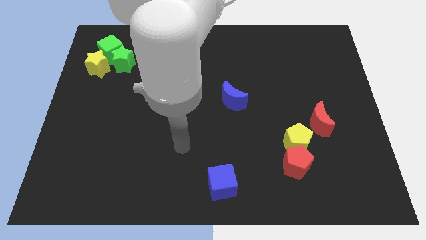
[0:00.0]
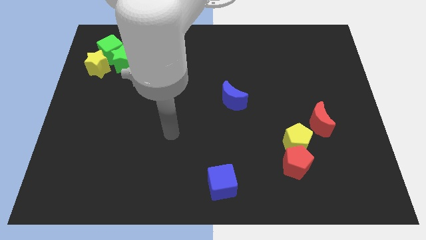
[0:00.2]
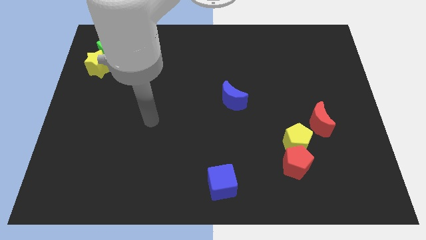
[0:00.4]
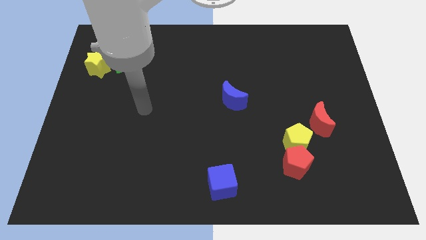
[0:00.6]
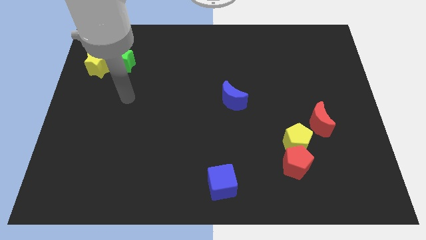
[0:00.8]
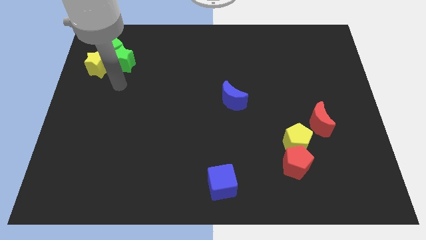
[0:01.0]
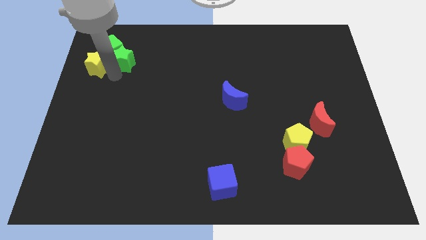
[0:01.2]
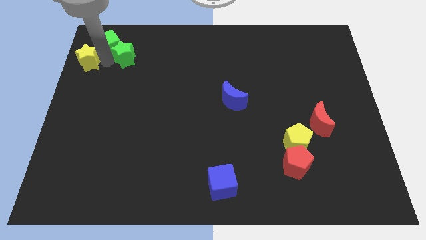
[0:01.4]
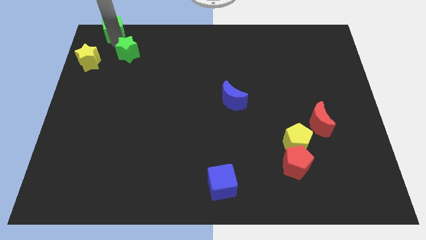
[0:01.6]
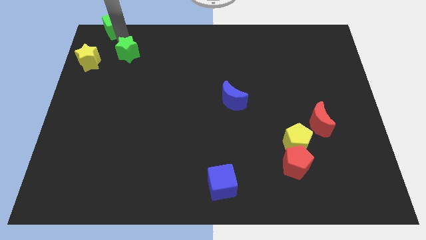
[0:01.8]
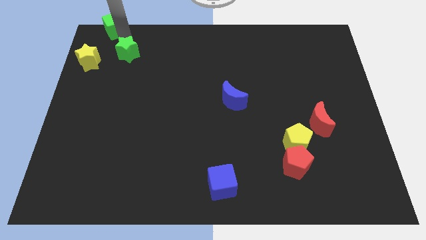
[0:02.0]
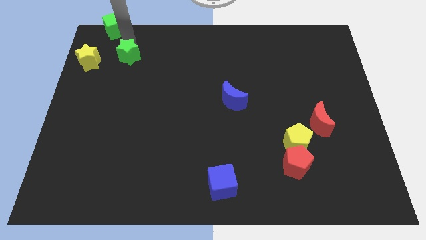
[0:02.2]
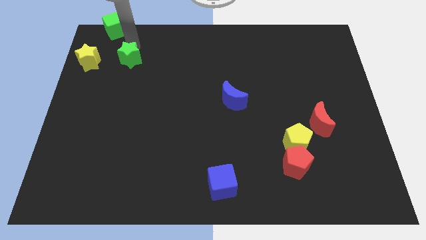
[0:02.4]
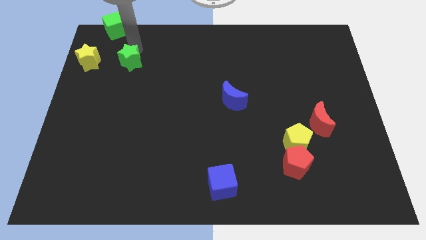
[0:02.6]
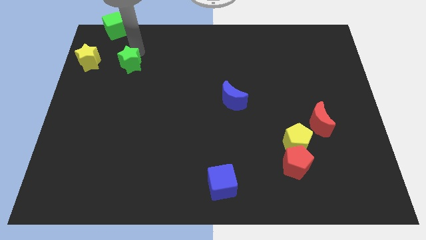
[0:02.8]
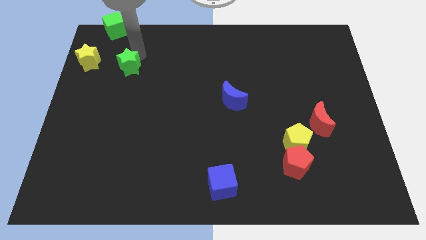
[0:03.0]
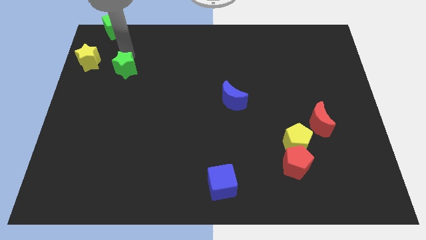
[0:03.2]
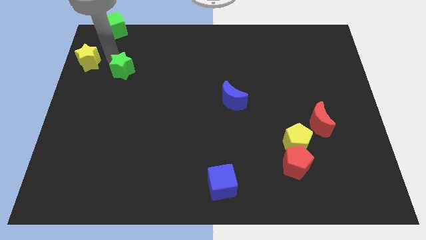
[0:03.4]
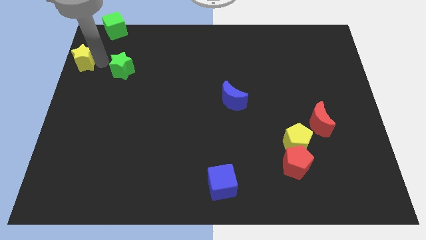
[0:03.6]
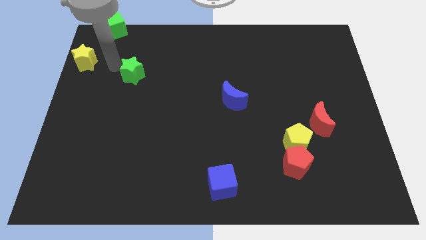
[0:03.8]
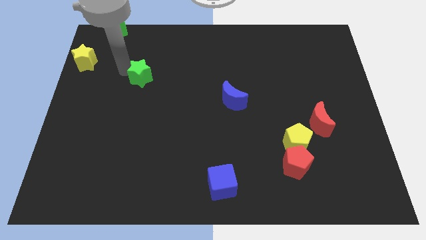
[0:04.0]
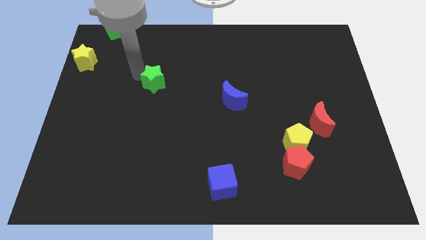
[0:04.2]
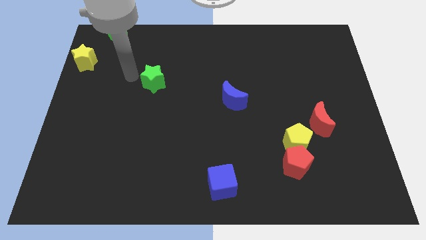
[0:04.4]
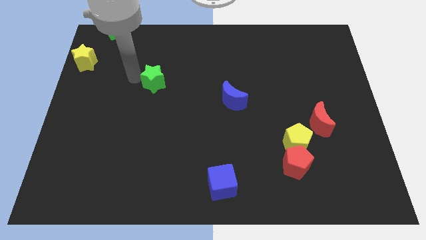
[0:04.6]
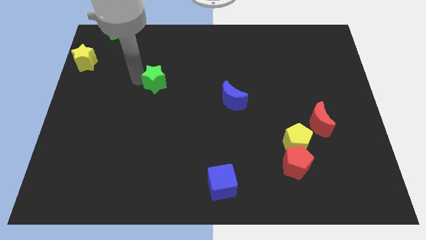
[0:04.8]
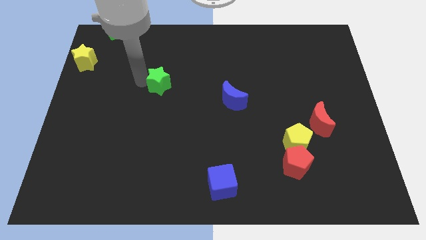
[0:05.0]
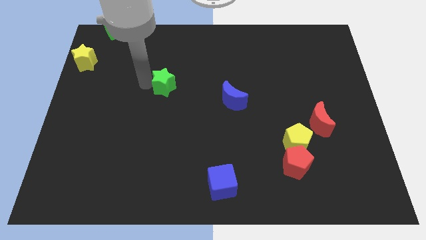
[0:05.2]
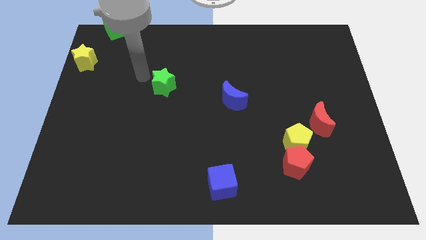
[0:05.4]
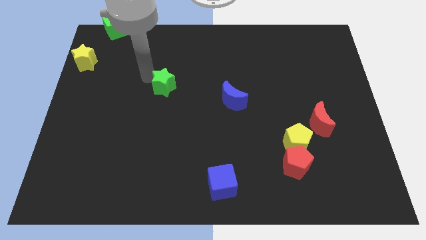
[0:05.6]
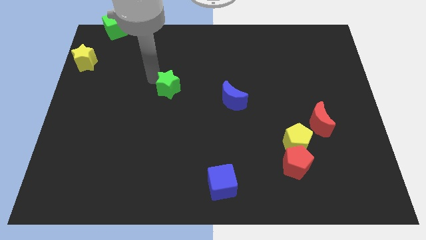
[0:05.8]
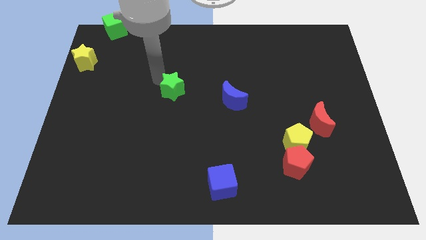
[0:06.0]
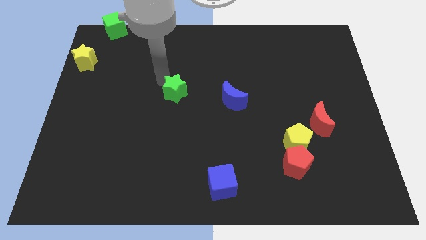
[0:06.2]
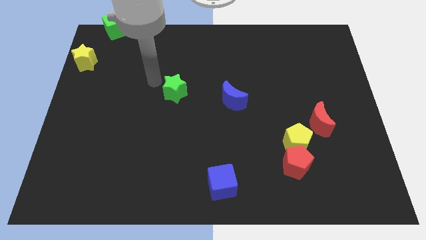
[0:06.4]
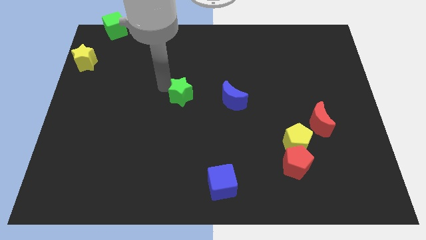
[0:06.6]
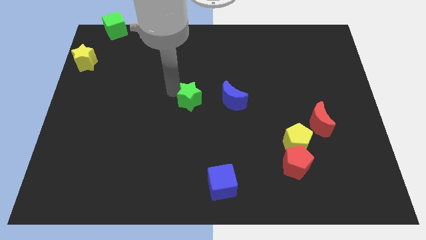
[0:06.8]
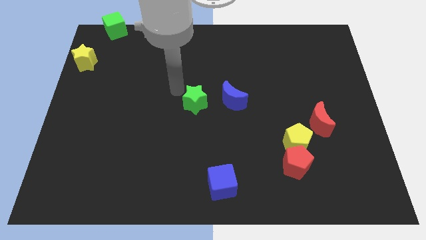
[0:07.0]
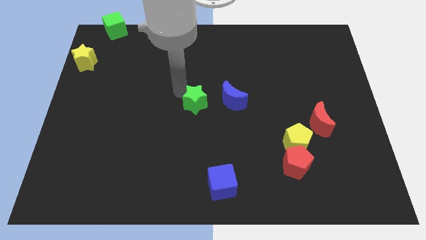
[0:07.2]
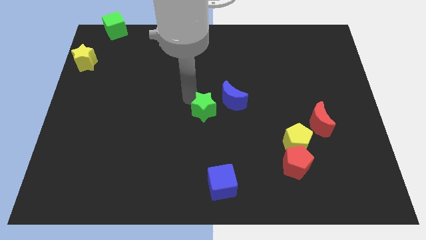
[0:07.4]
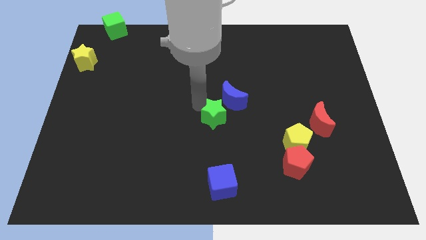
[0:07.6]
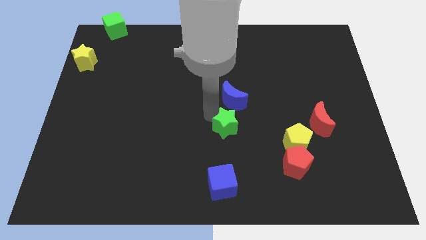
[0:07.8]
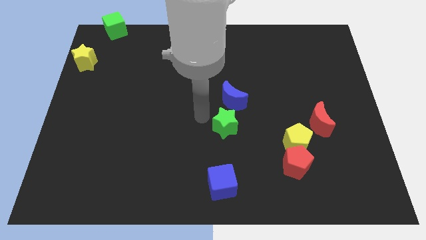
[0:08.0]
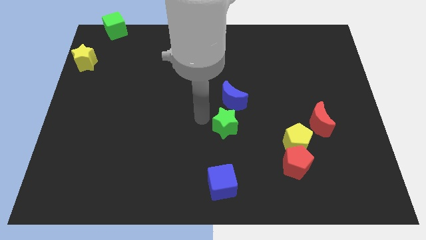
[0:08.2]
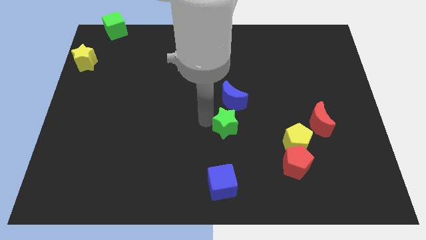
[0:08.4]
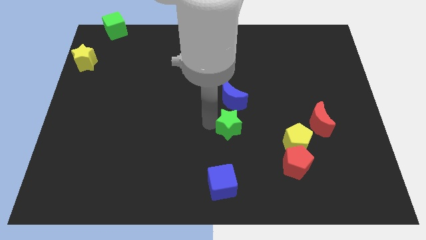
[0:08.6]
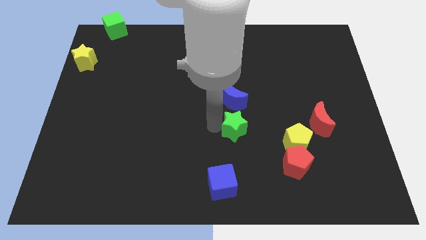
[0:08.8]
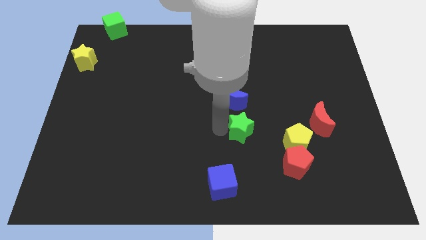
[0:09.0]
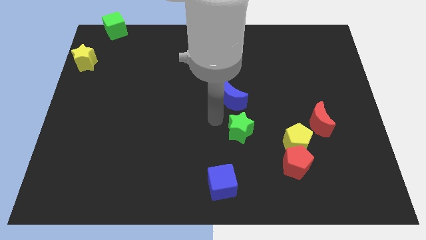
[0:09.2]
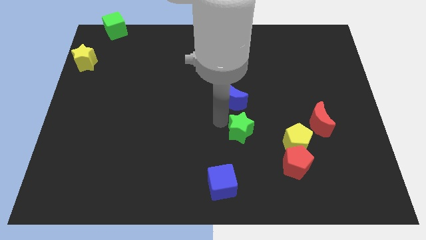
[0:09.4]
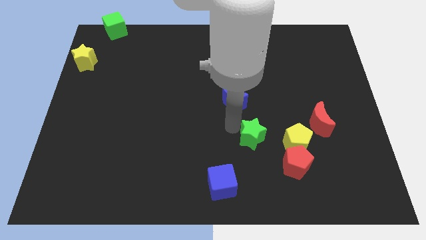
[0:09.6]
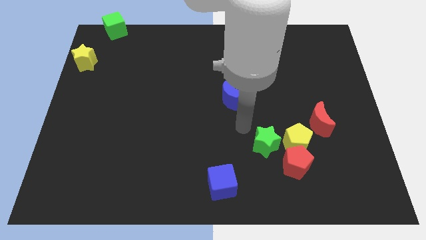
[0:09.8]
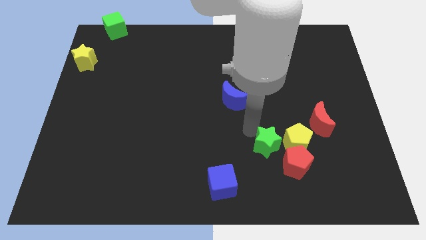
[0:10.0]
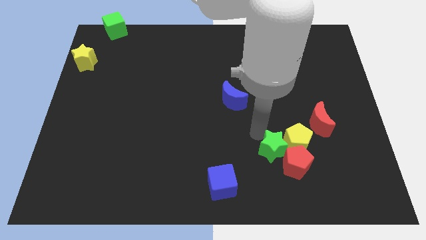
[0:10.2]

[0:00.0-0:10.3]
push the green star to the red pentagon

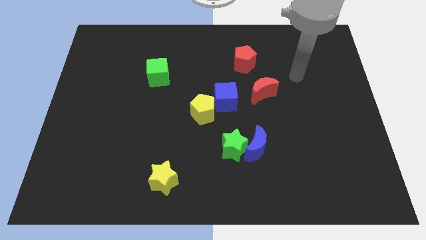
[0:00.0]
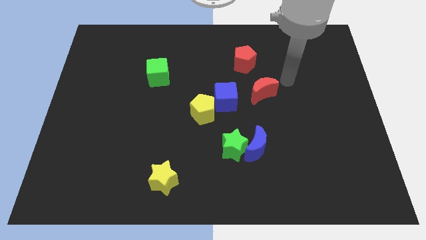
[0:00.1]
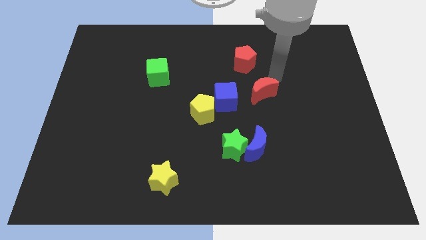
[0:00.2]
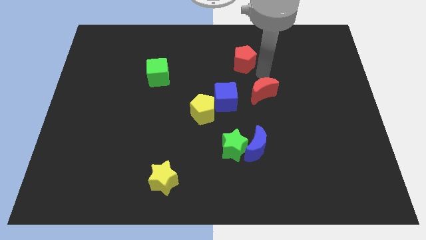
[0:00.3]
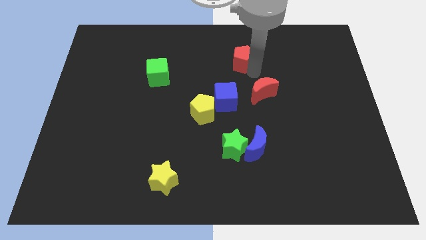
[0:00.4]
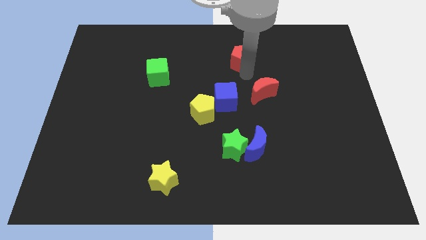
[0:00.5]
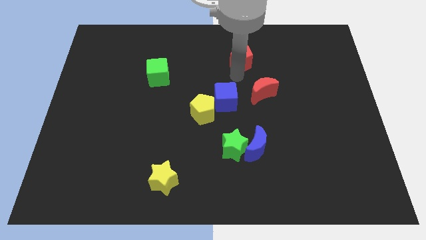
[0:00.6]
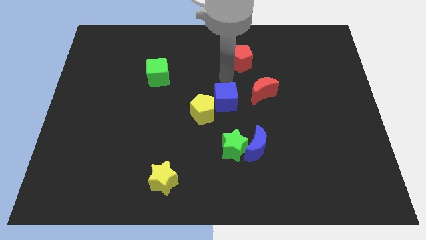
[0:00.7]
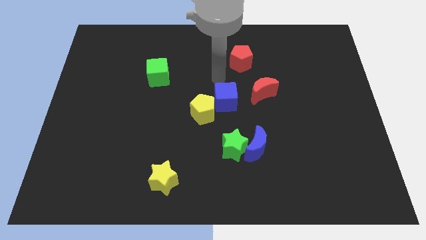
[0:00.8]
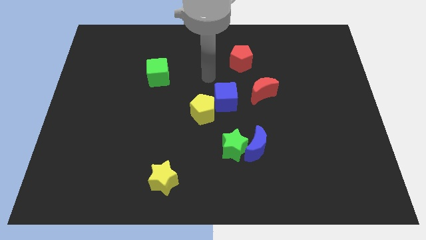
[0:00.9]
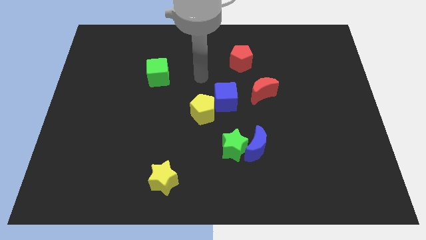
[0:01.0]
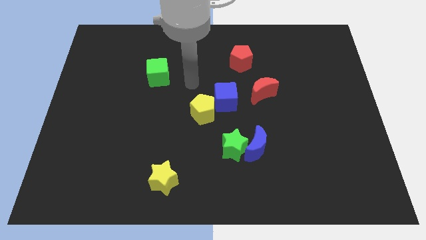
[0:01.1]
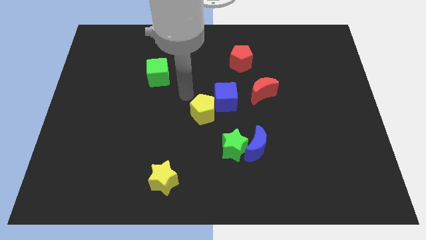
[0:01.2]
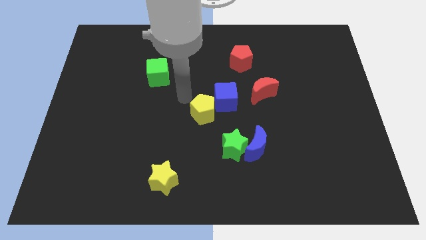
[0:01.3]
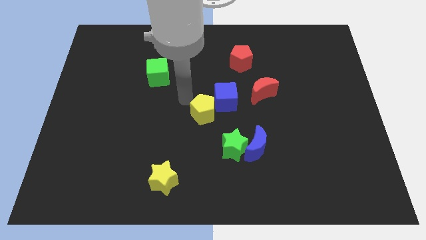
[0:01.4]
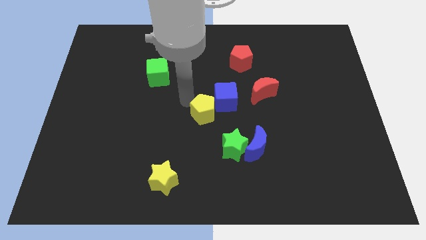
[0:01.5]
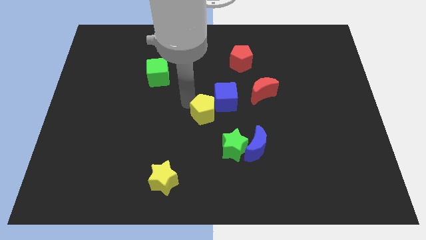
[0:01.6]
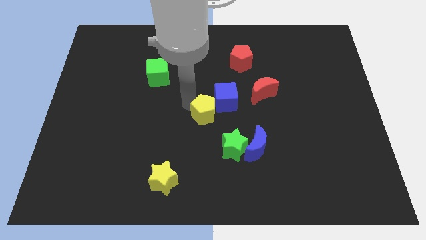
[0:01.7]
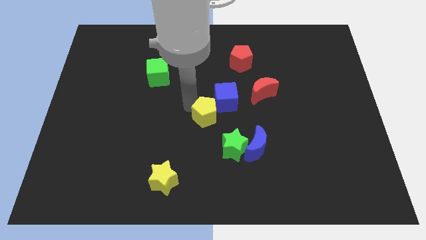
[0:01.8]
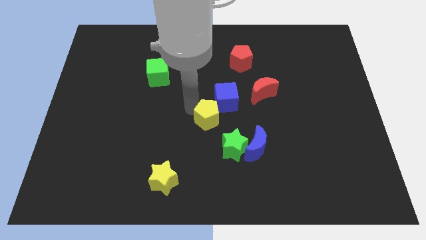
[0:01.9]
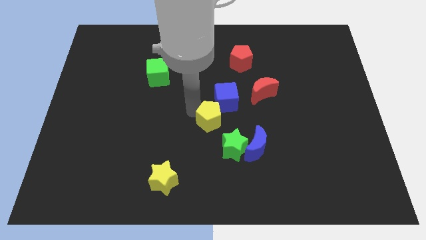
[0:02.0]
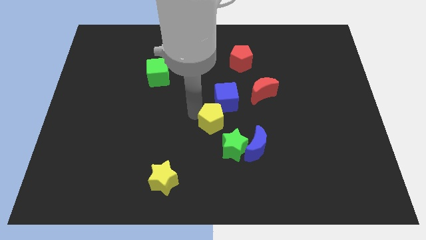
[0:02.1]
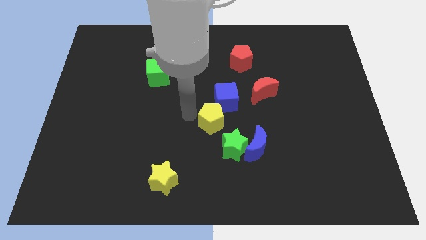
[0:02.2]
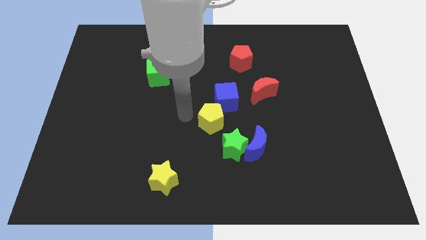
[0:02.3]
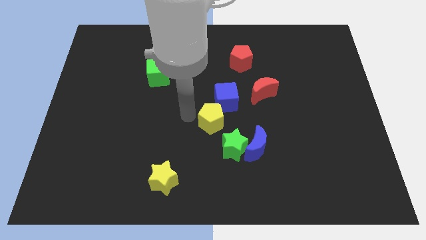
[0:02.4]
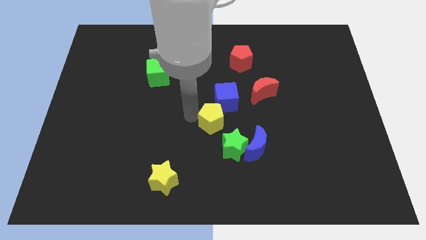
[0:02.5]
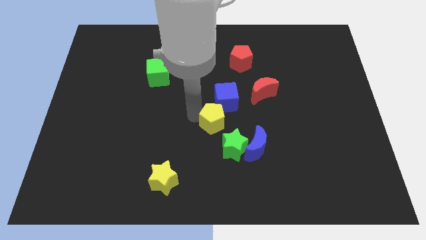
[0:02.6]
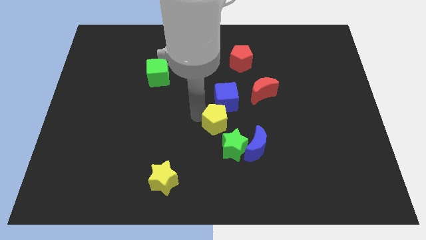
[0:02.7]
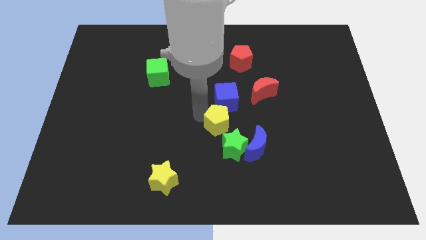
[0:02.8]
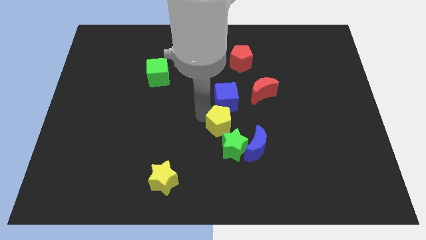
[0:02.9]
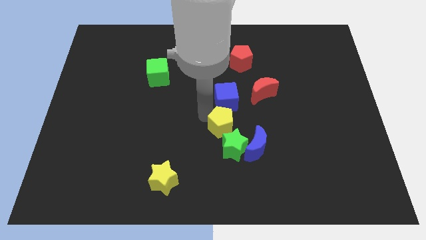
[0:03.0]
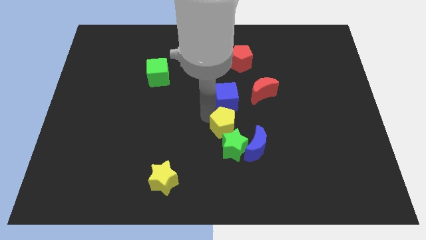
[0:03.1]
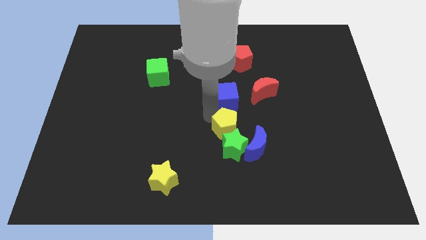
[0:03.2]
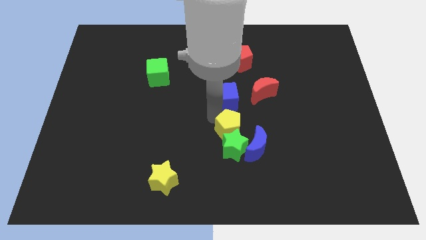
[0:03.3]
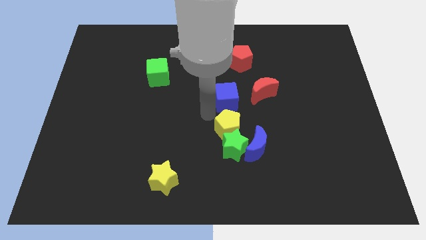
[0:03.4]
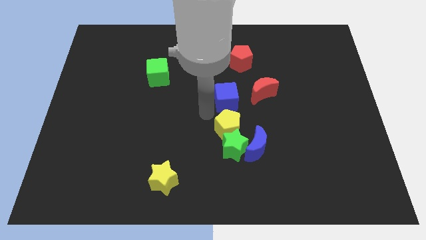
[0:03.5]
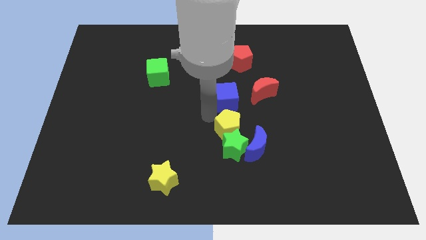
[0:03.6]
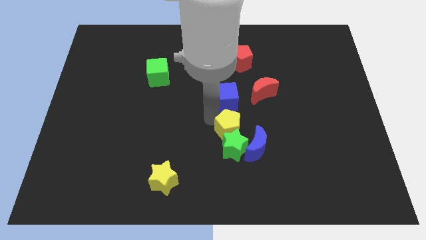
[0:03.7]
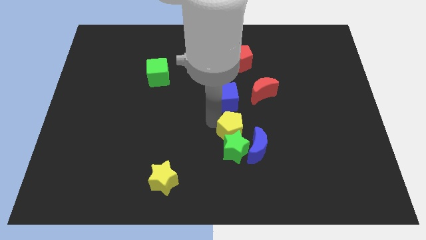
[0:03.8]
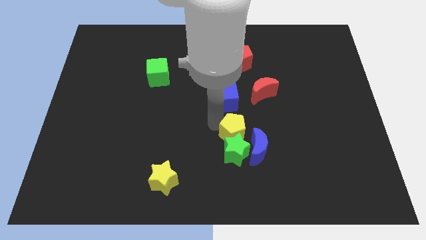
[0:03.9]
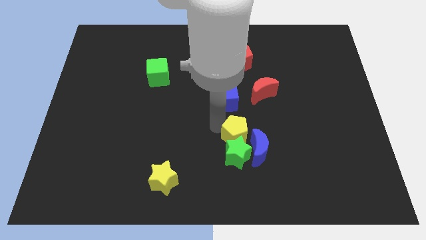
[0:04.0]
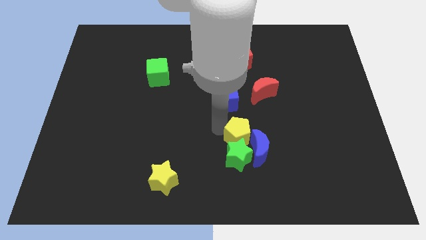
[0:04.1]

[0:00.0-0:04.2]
move the yellow pentagon to the blue moon
